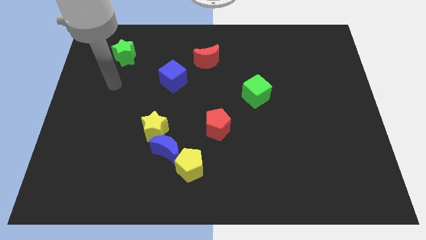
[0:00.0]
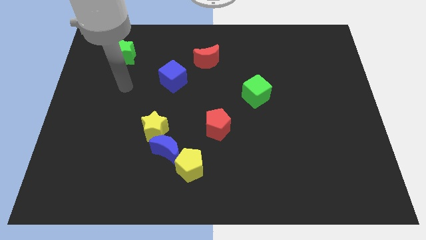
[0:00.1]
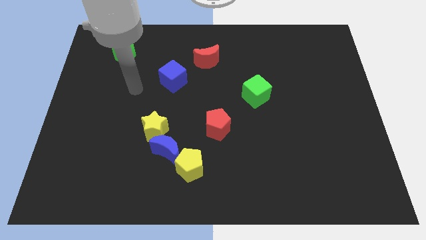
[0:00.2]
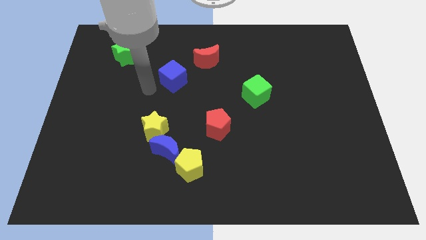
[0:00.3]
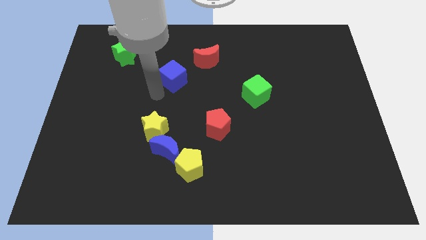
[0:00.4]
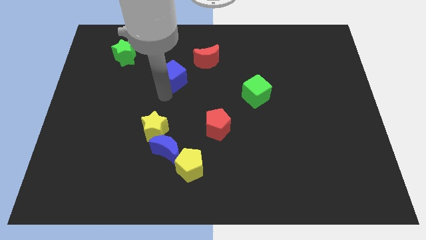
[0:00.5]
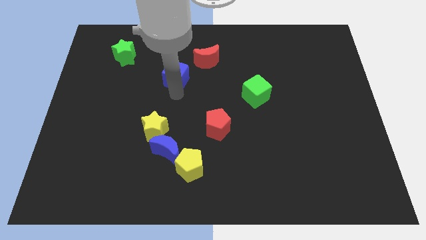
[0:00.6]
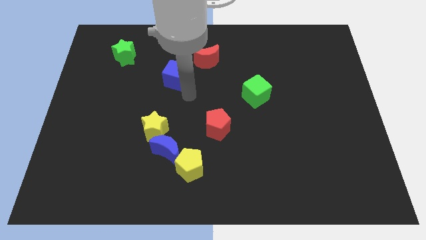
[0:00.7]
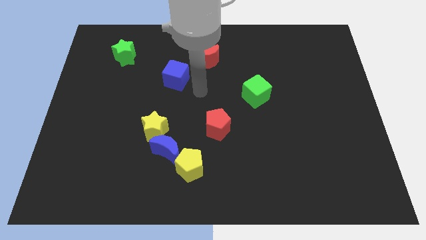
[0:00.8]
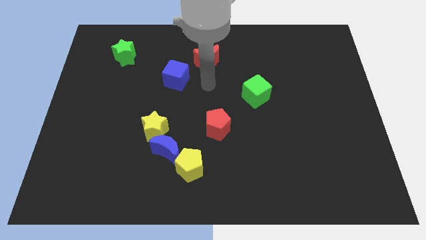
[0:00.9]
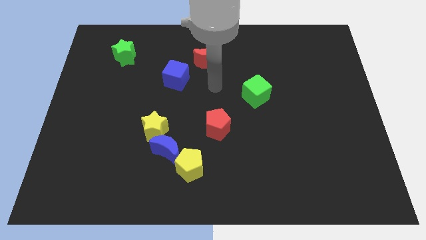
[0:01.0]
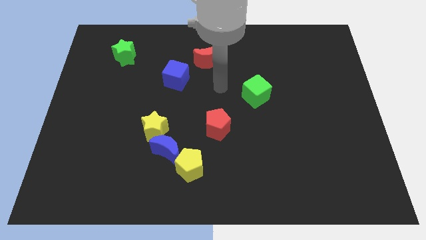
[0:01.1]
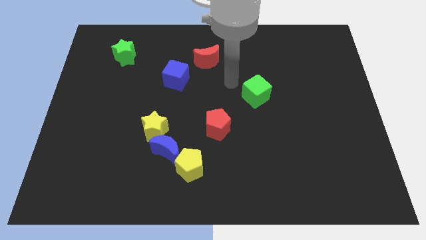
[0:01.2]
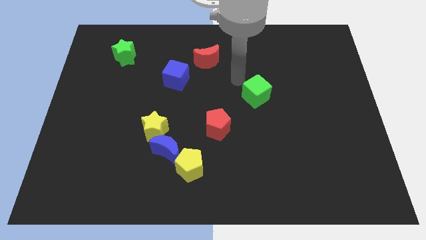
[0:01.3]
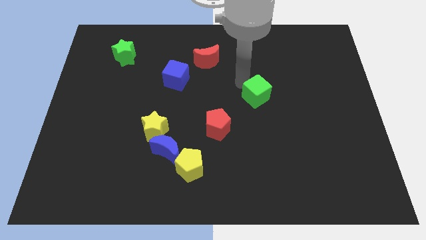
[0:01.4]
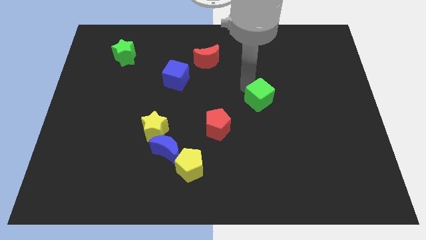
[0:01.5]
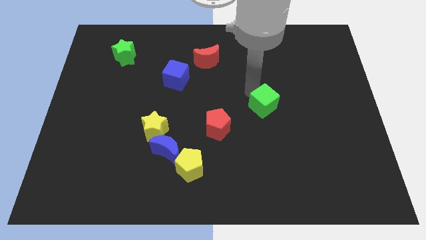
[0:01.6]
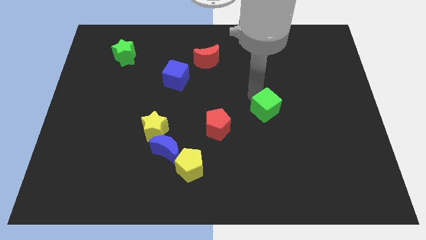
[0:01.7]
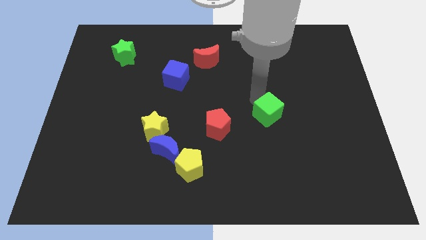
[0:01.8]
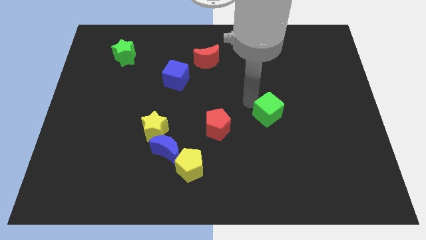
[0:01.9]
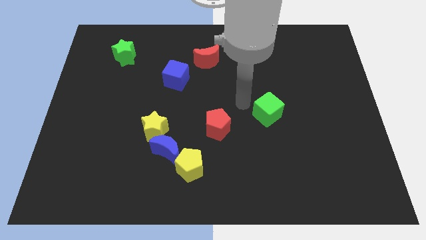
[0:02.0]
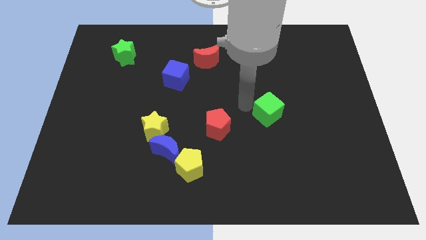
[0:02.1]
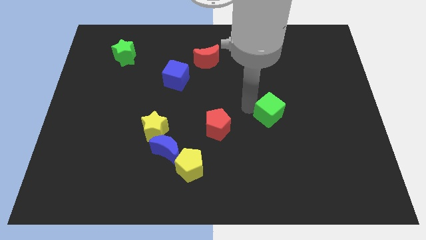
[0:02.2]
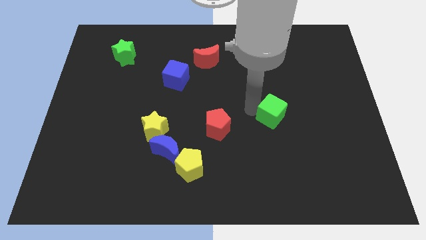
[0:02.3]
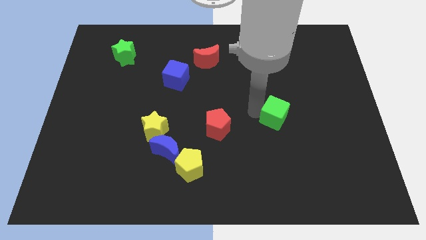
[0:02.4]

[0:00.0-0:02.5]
move the green cube a bit downwards and right diagonally

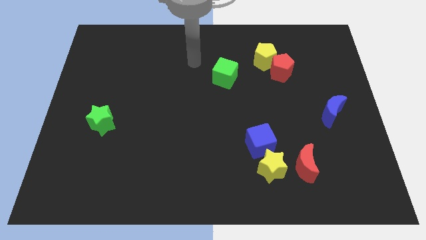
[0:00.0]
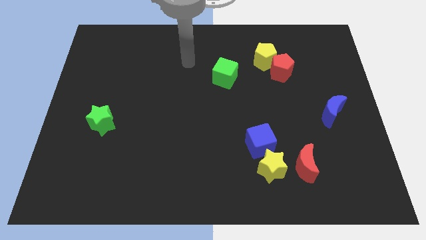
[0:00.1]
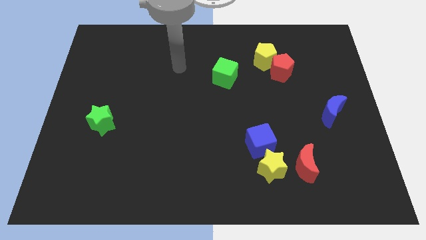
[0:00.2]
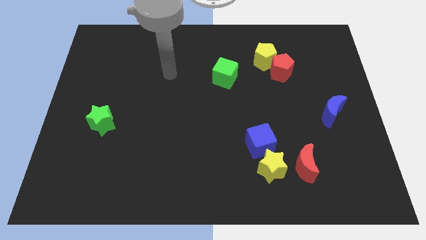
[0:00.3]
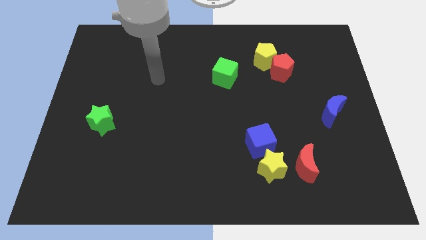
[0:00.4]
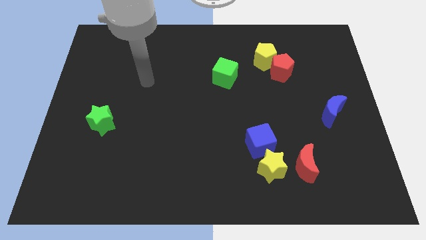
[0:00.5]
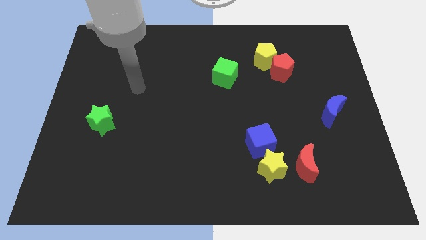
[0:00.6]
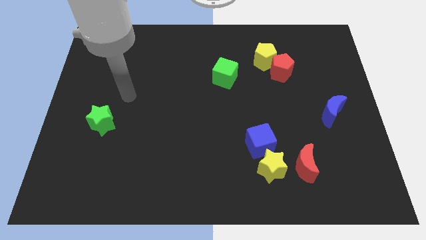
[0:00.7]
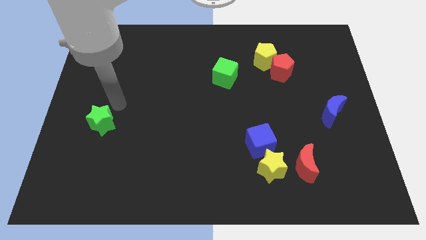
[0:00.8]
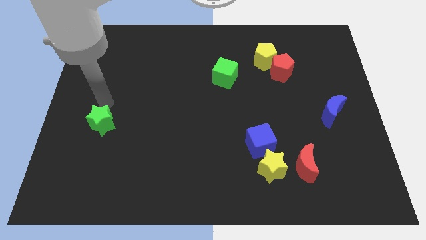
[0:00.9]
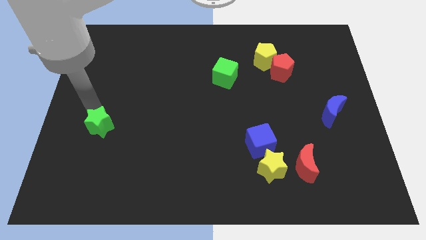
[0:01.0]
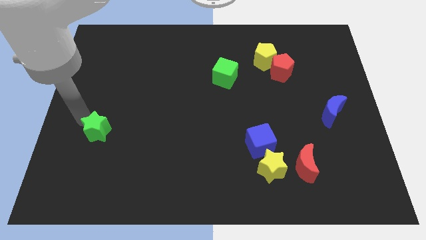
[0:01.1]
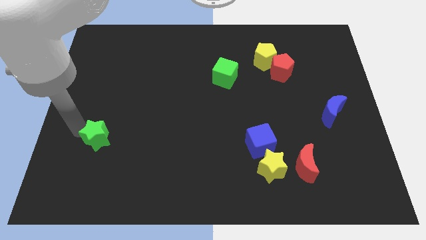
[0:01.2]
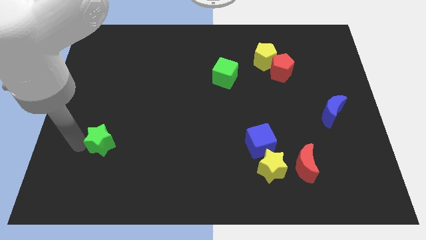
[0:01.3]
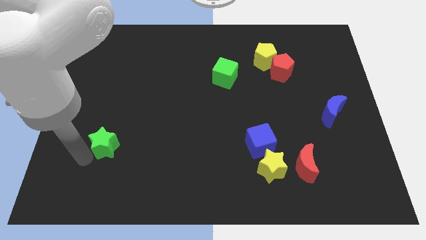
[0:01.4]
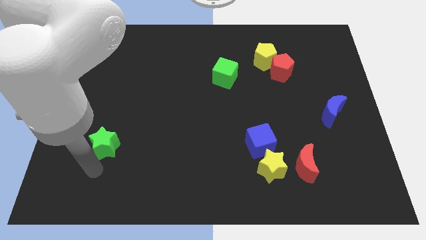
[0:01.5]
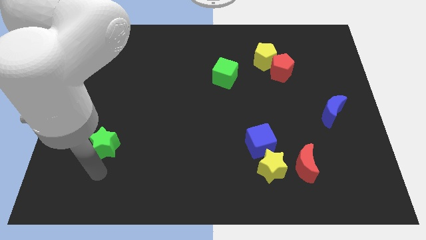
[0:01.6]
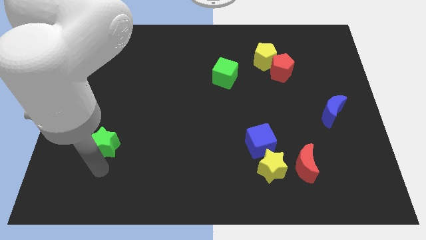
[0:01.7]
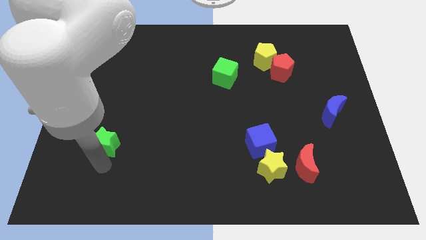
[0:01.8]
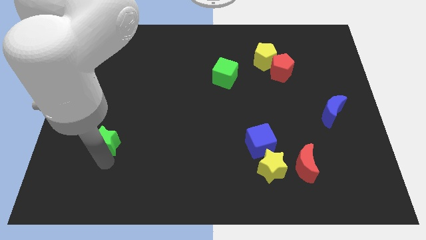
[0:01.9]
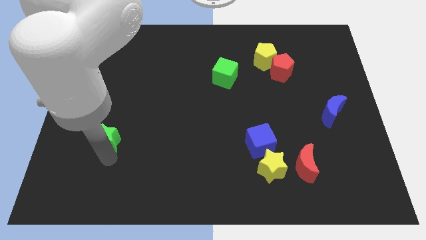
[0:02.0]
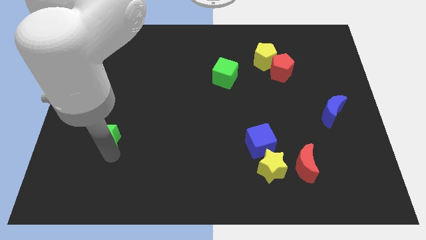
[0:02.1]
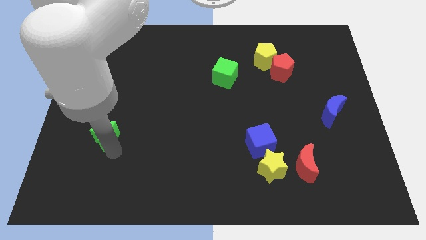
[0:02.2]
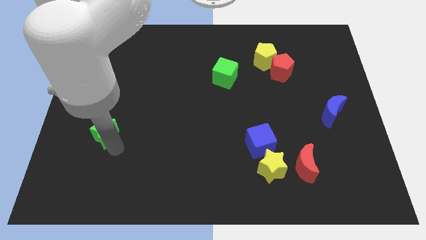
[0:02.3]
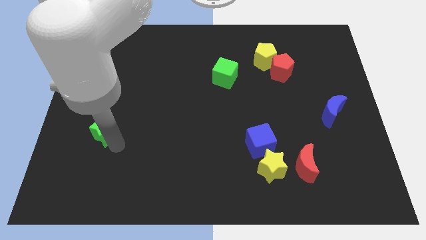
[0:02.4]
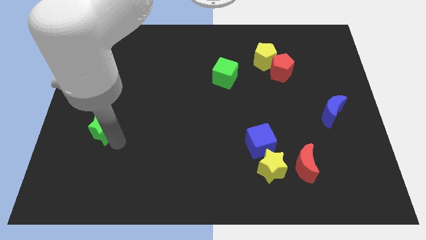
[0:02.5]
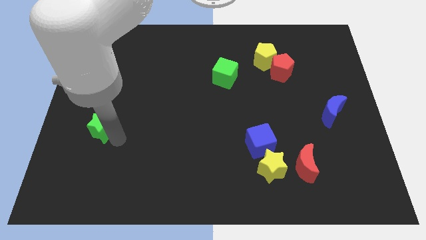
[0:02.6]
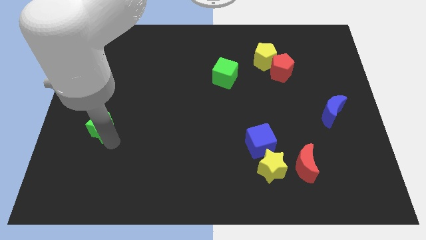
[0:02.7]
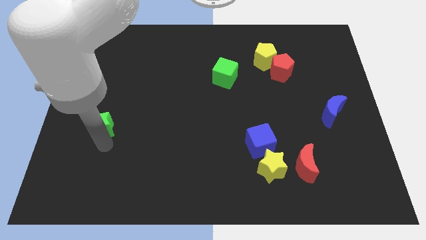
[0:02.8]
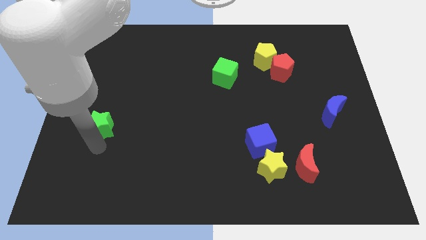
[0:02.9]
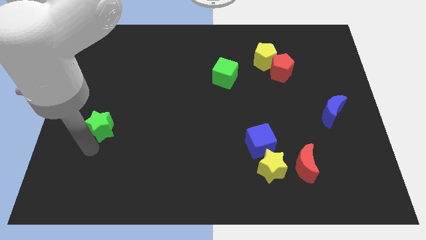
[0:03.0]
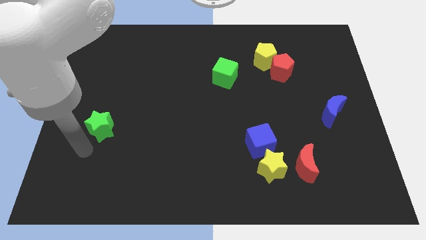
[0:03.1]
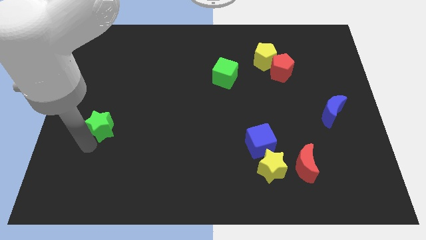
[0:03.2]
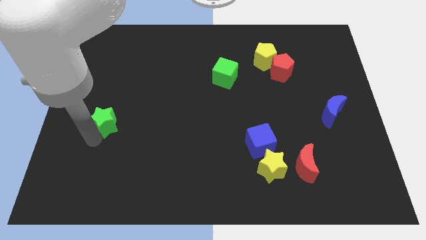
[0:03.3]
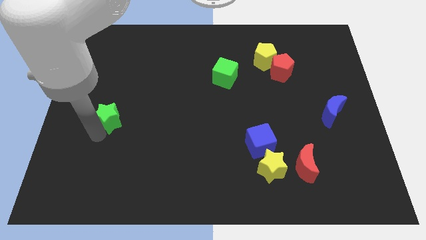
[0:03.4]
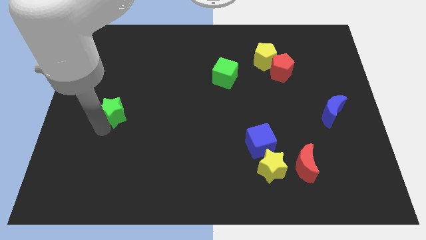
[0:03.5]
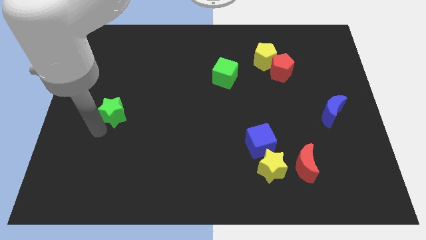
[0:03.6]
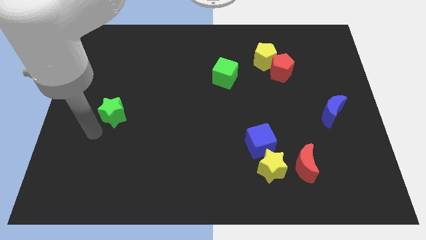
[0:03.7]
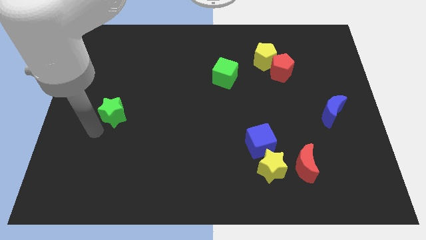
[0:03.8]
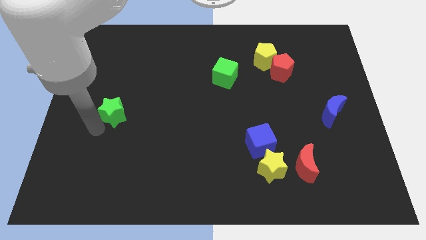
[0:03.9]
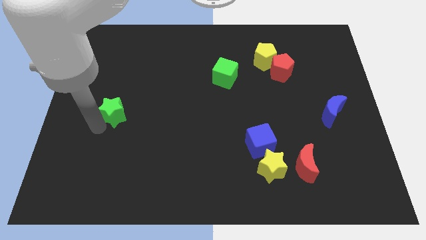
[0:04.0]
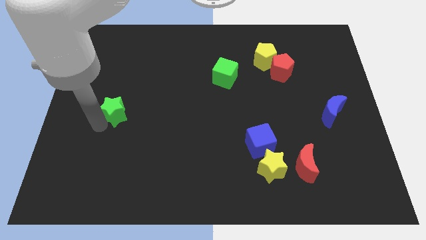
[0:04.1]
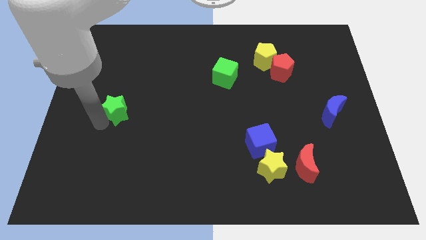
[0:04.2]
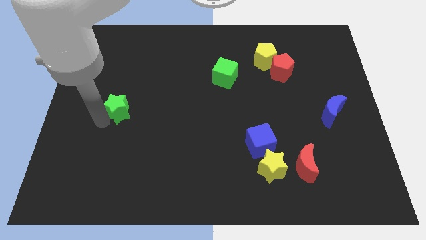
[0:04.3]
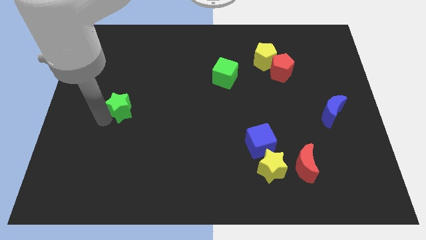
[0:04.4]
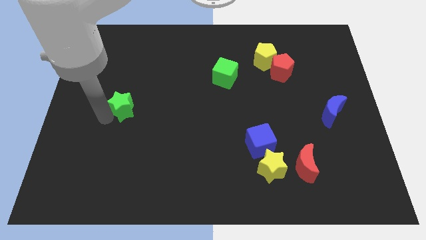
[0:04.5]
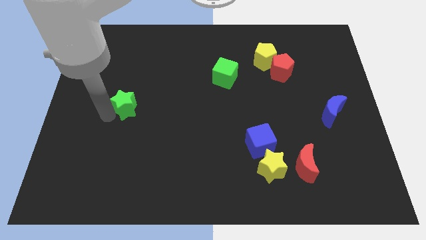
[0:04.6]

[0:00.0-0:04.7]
slightly slide the green star diagonally up and to the right

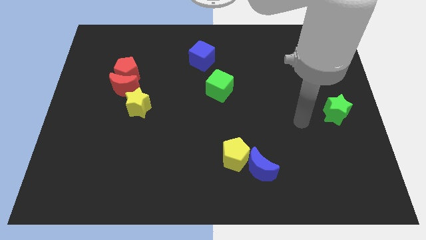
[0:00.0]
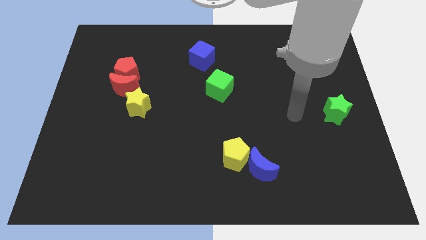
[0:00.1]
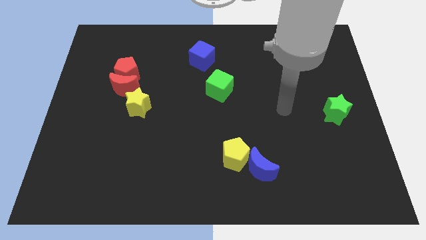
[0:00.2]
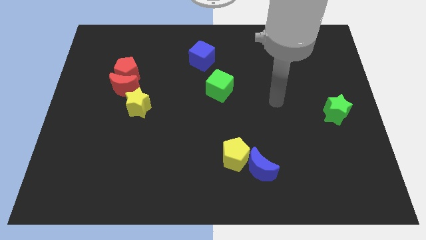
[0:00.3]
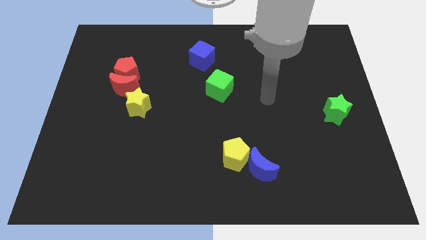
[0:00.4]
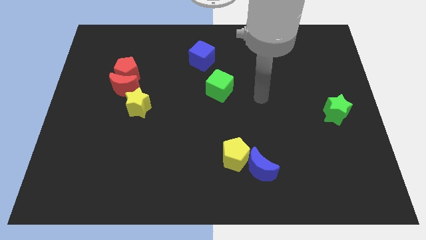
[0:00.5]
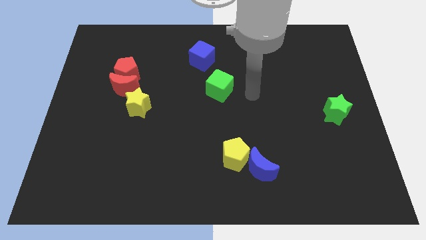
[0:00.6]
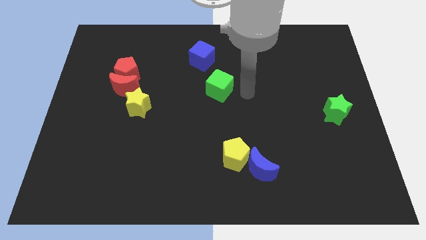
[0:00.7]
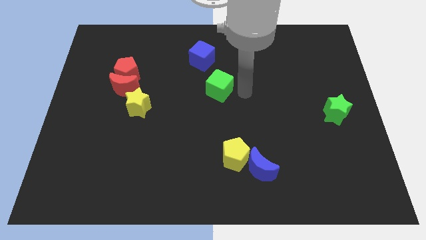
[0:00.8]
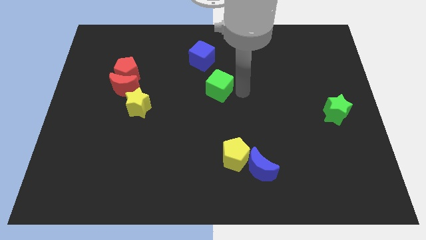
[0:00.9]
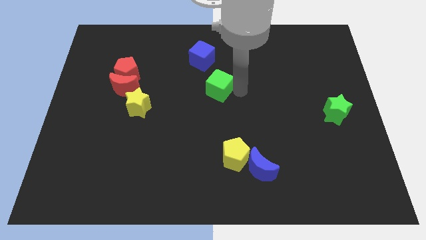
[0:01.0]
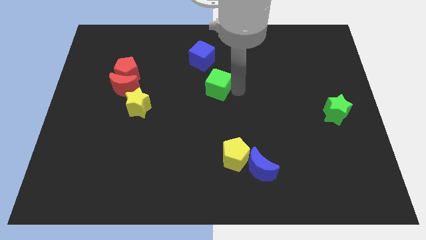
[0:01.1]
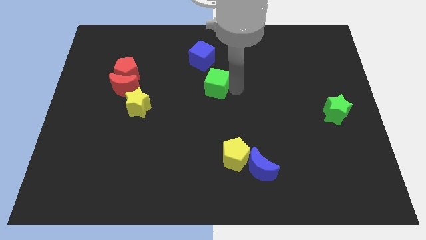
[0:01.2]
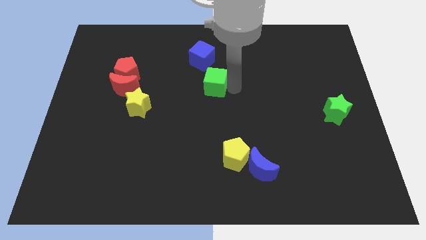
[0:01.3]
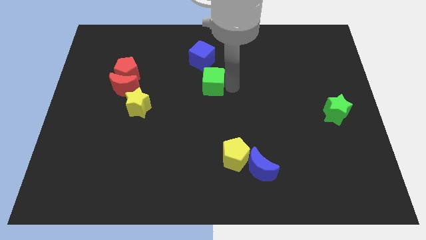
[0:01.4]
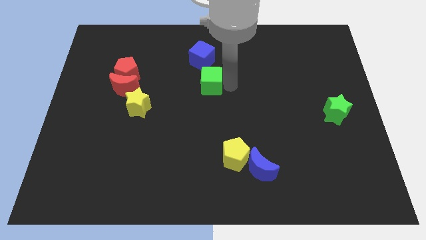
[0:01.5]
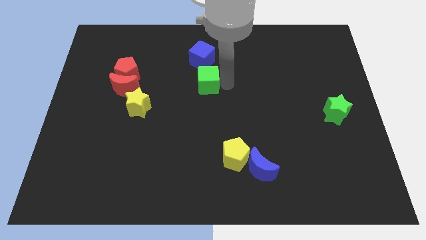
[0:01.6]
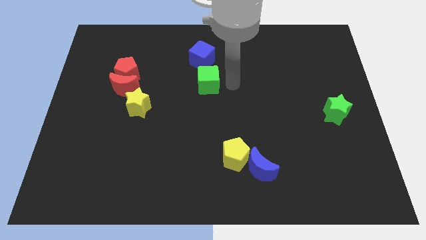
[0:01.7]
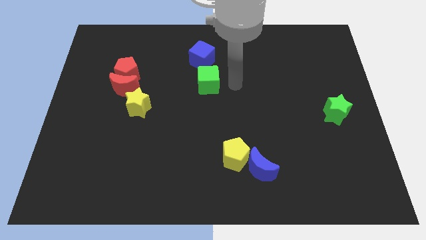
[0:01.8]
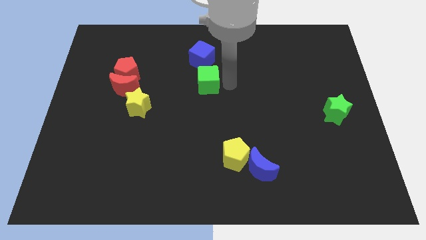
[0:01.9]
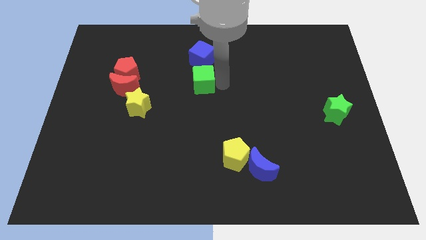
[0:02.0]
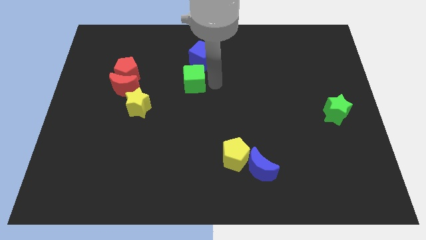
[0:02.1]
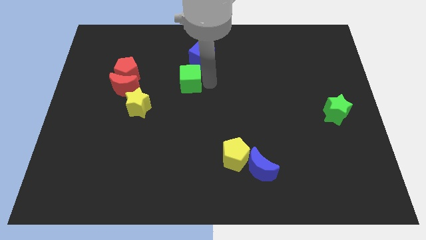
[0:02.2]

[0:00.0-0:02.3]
move the green cube left a bit
